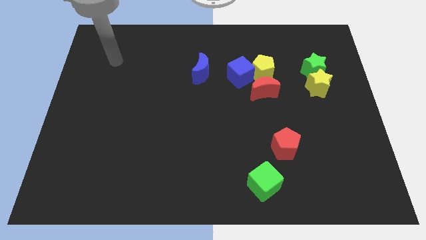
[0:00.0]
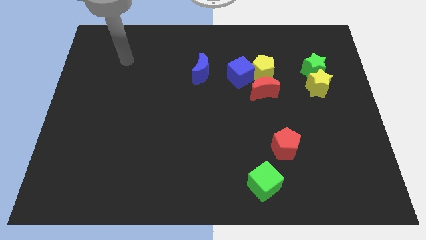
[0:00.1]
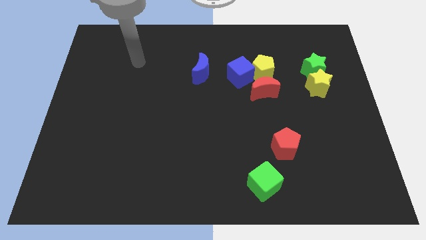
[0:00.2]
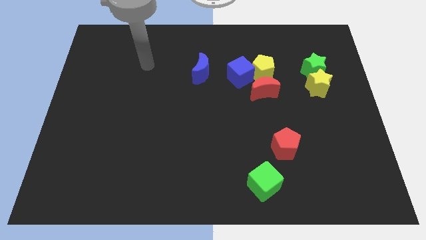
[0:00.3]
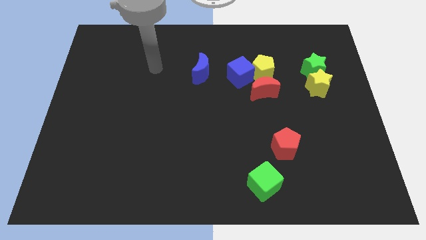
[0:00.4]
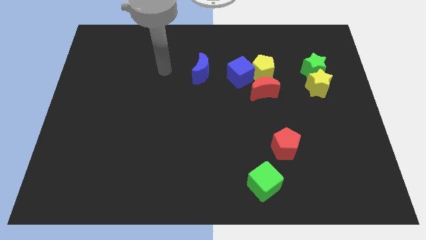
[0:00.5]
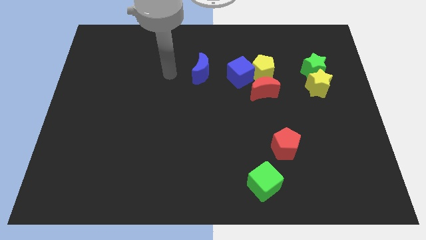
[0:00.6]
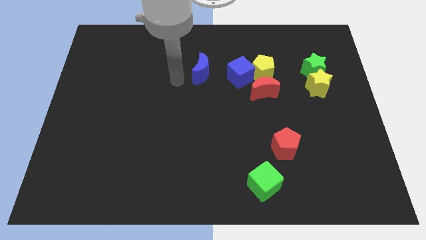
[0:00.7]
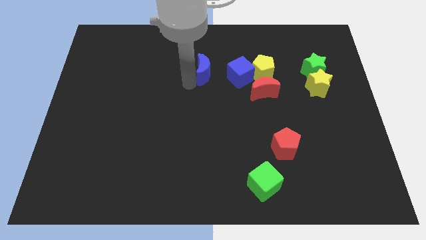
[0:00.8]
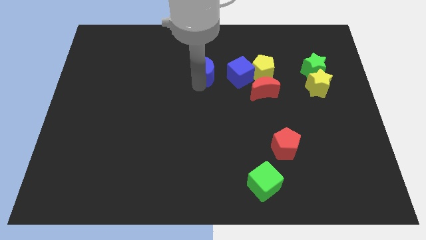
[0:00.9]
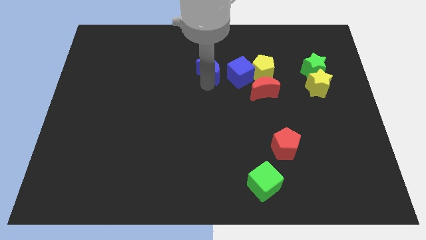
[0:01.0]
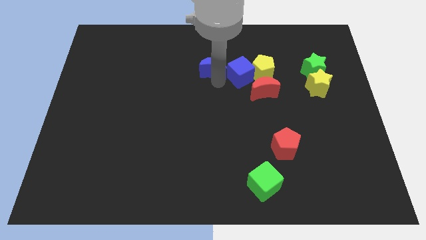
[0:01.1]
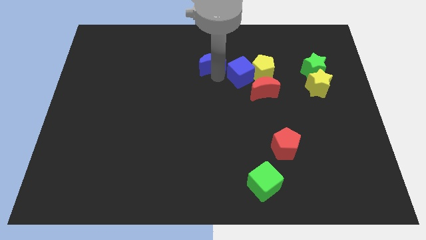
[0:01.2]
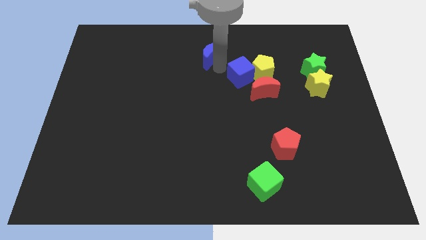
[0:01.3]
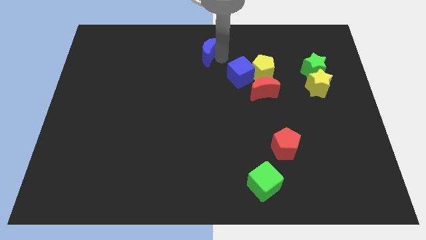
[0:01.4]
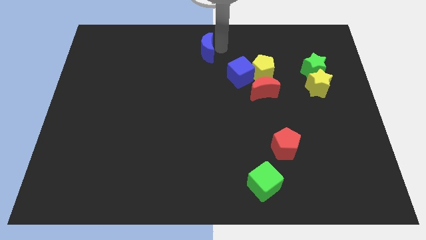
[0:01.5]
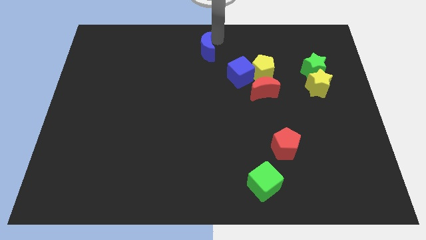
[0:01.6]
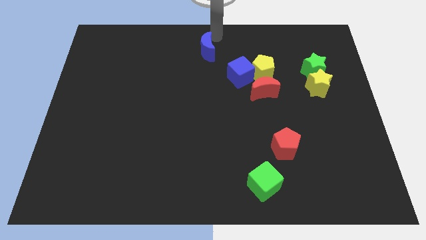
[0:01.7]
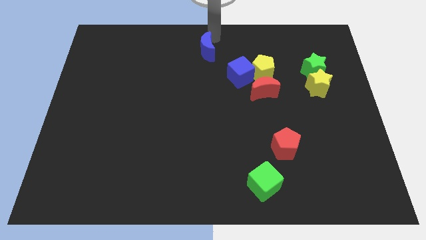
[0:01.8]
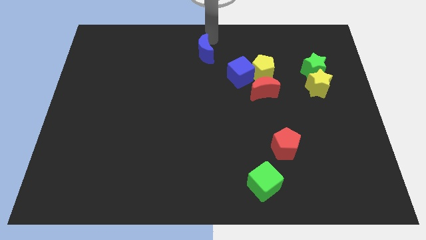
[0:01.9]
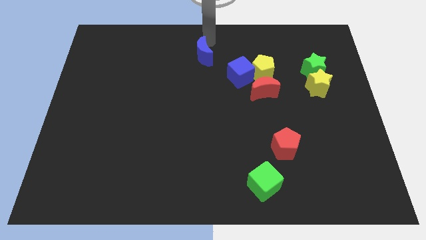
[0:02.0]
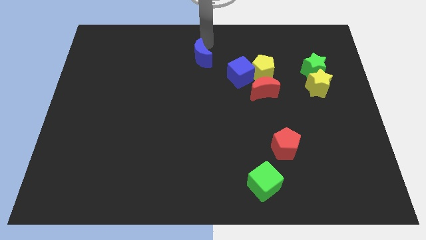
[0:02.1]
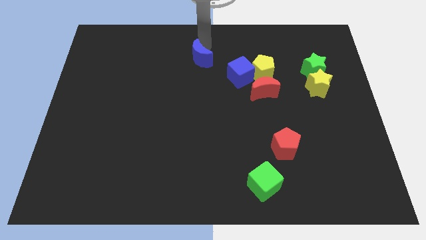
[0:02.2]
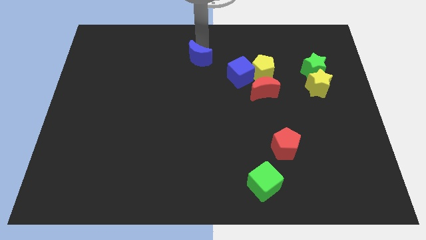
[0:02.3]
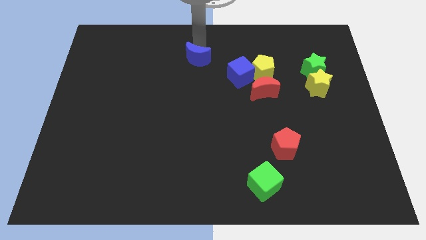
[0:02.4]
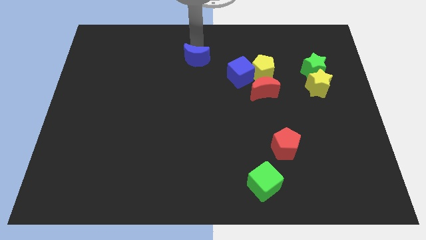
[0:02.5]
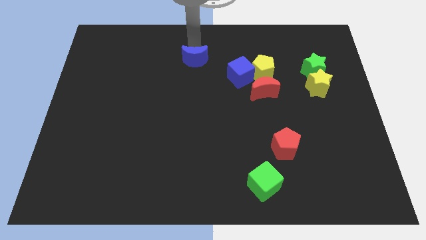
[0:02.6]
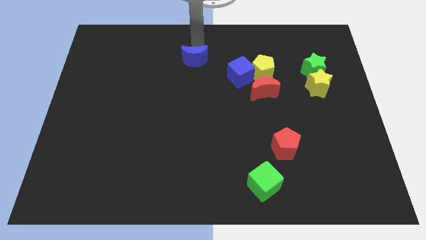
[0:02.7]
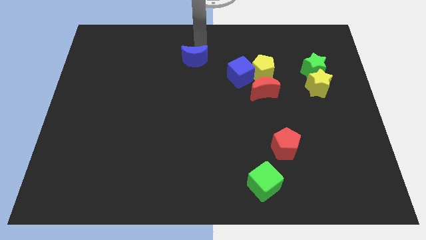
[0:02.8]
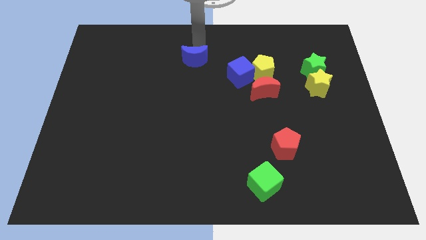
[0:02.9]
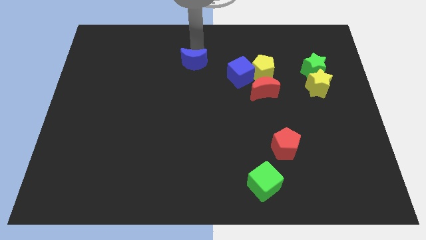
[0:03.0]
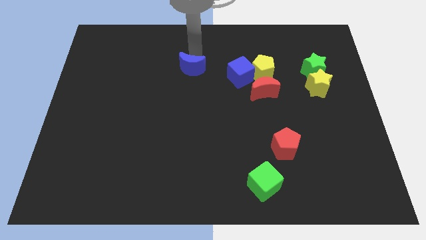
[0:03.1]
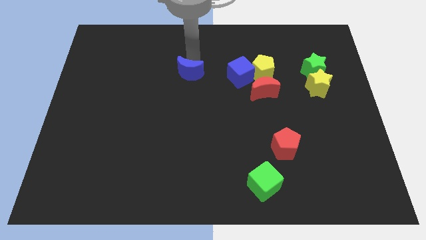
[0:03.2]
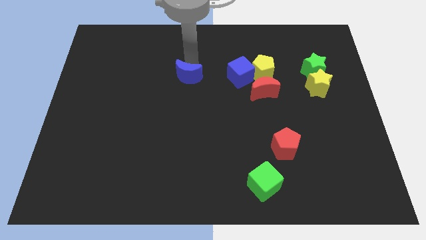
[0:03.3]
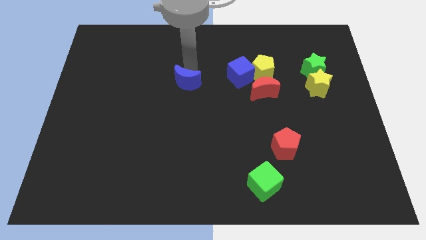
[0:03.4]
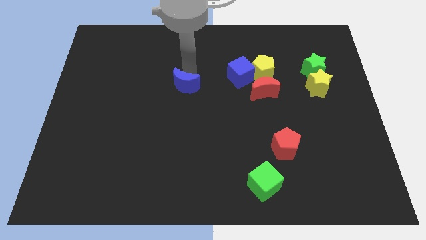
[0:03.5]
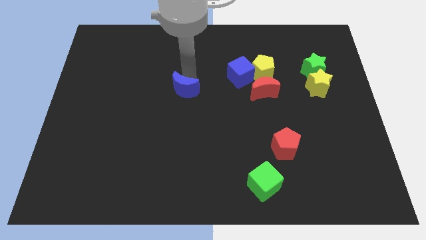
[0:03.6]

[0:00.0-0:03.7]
slide the blue moon somewhat diagonally downwards and to the left

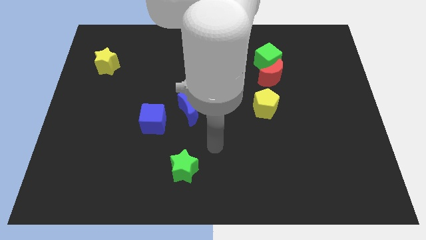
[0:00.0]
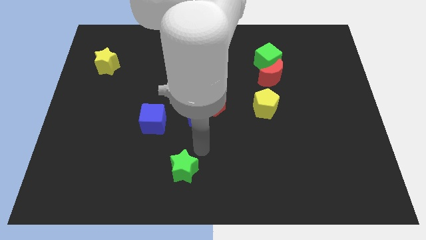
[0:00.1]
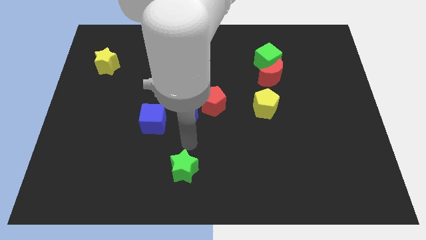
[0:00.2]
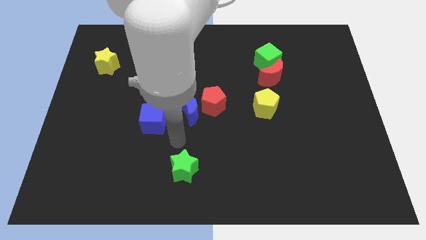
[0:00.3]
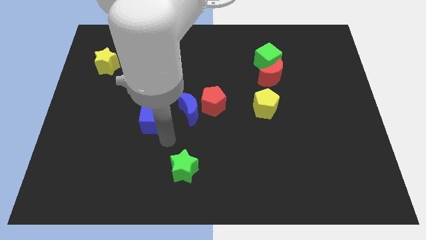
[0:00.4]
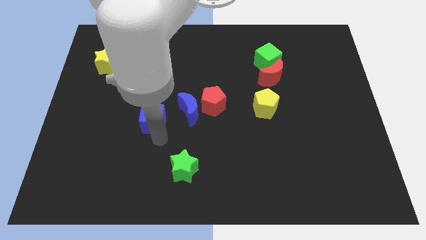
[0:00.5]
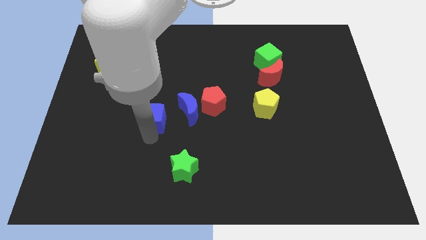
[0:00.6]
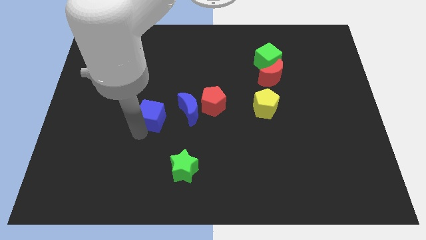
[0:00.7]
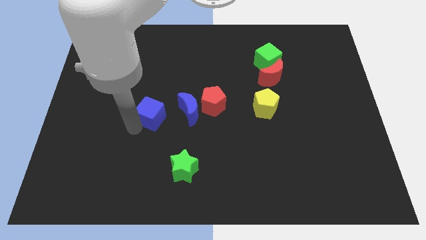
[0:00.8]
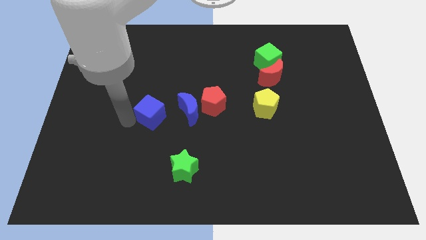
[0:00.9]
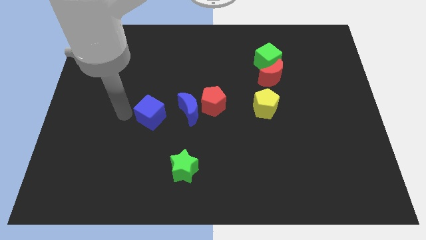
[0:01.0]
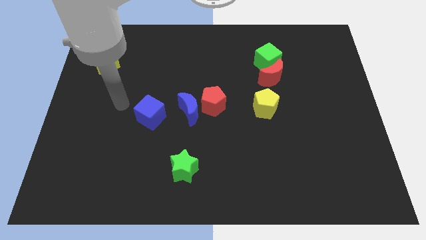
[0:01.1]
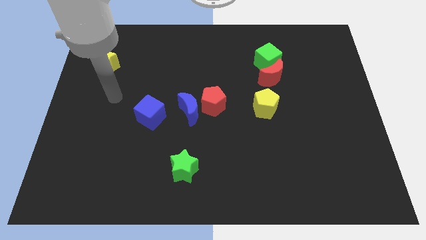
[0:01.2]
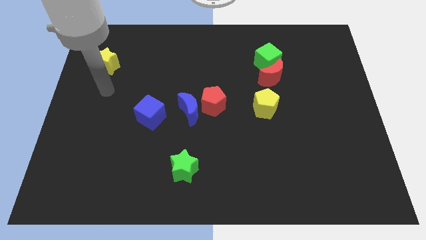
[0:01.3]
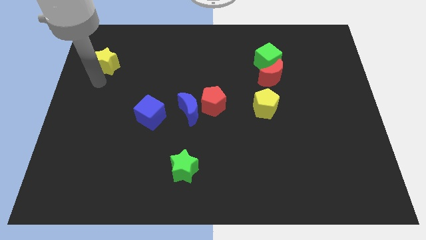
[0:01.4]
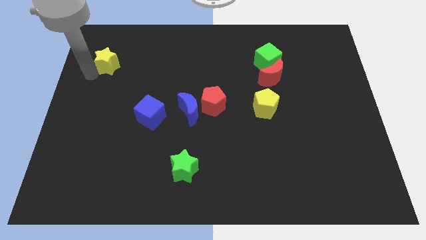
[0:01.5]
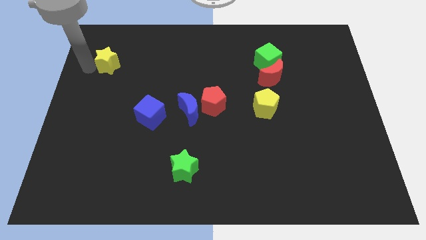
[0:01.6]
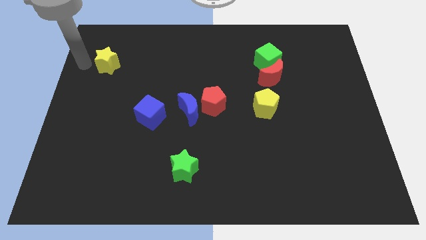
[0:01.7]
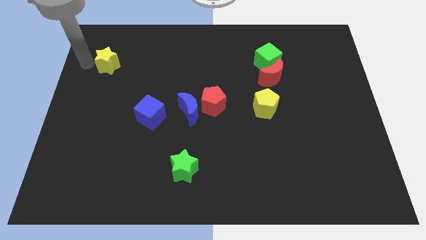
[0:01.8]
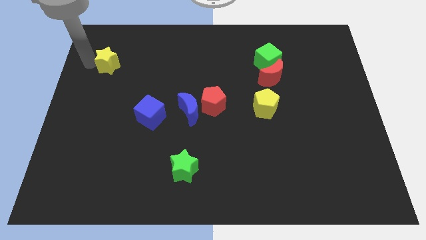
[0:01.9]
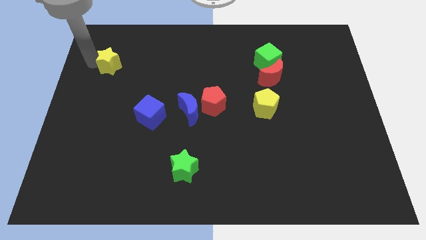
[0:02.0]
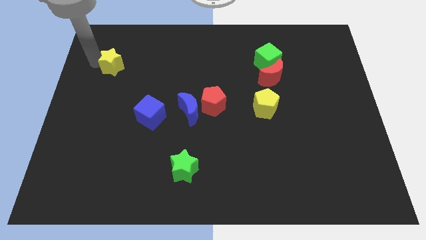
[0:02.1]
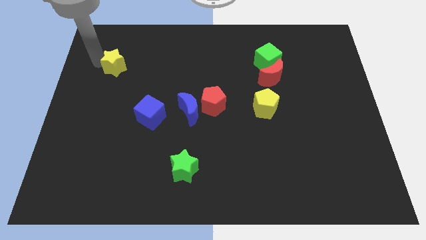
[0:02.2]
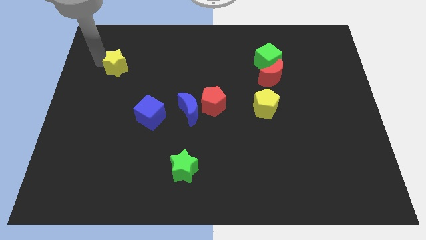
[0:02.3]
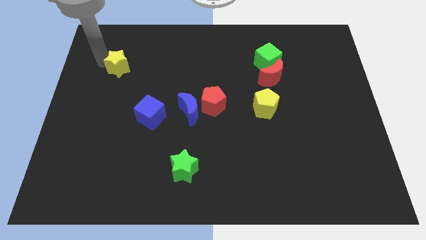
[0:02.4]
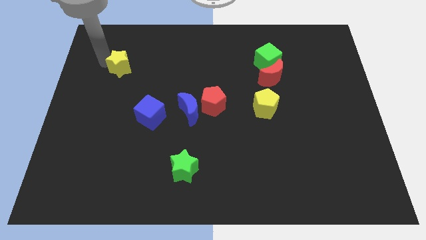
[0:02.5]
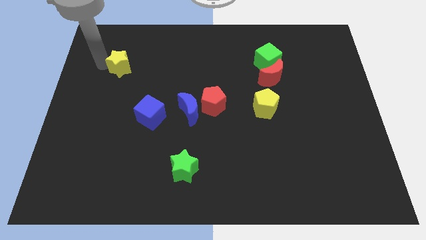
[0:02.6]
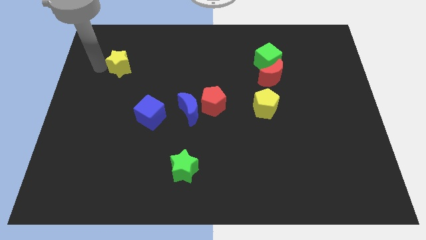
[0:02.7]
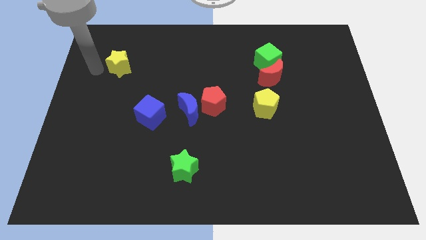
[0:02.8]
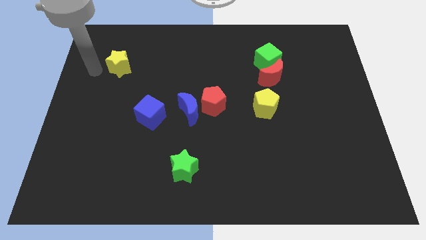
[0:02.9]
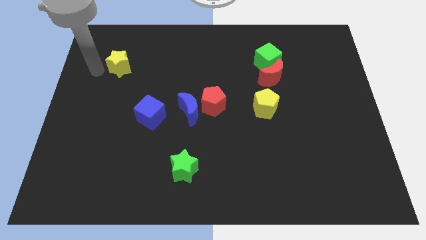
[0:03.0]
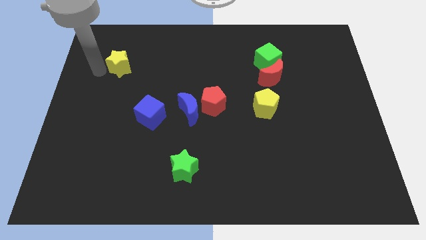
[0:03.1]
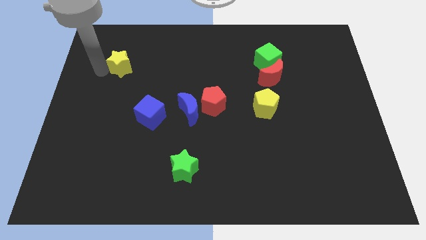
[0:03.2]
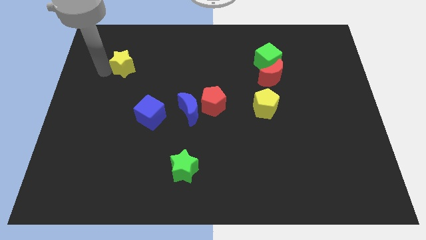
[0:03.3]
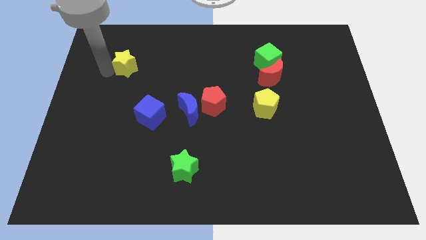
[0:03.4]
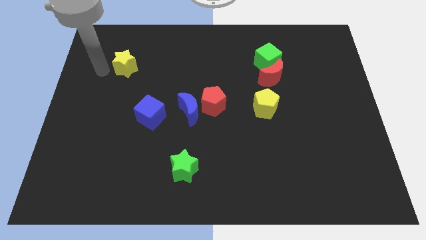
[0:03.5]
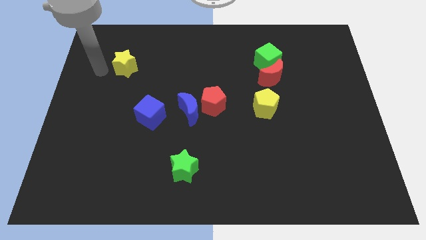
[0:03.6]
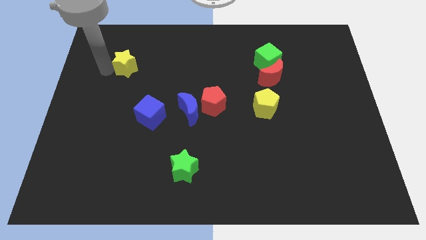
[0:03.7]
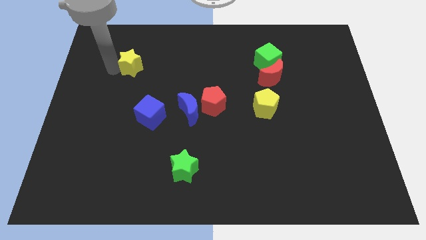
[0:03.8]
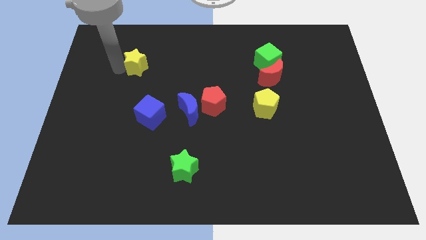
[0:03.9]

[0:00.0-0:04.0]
slightly slide the yellow star right

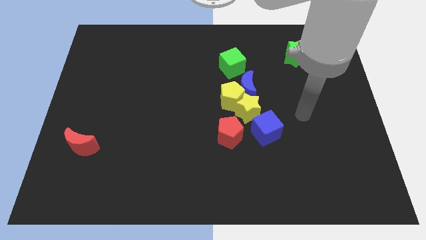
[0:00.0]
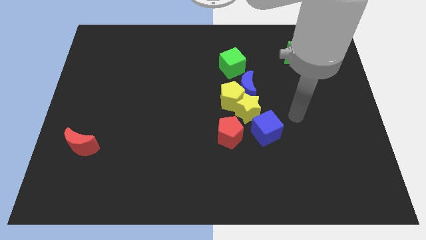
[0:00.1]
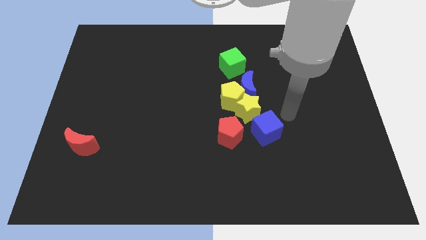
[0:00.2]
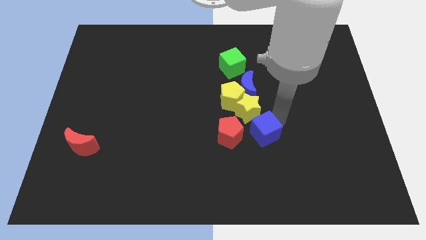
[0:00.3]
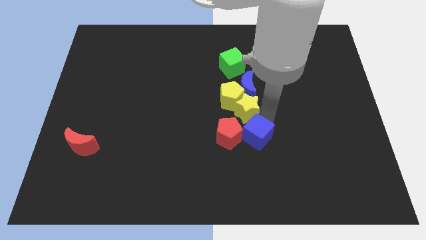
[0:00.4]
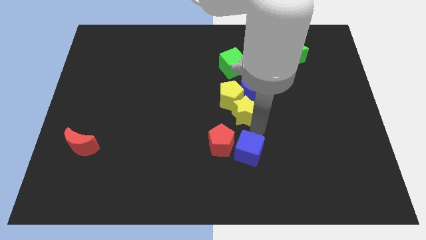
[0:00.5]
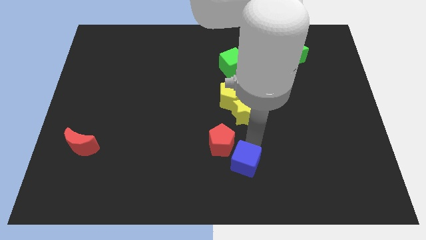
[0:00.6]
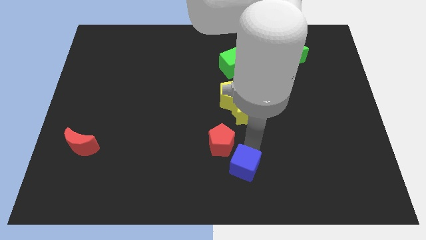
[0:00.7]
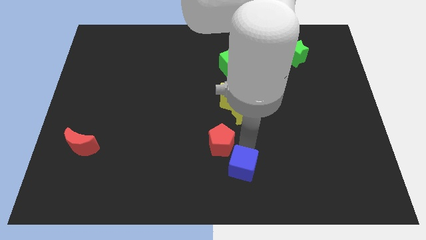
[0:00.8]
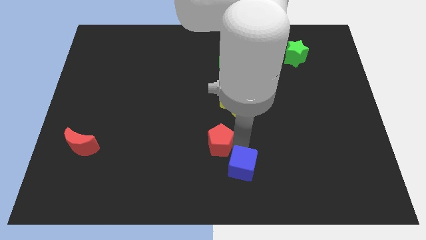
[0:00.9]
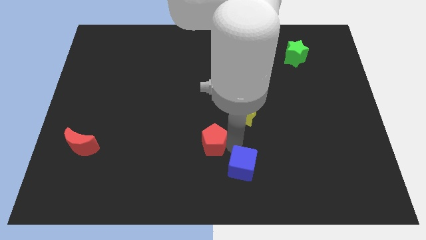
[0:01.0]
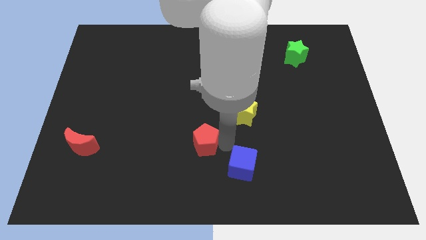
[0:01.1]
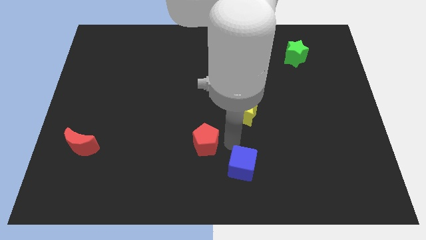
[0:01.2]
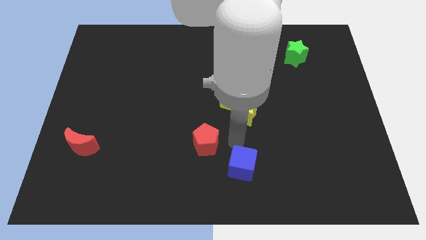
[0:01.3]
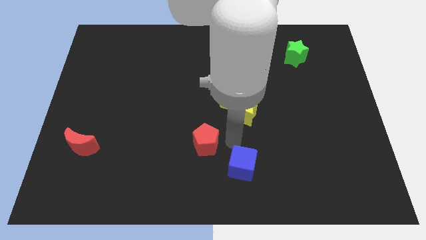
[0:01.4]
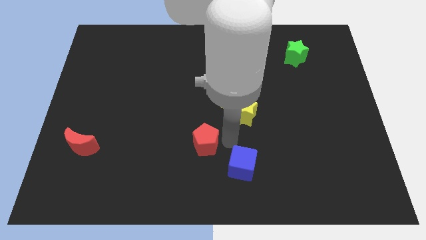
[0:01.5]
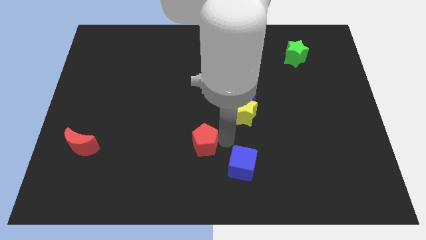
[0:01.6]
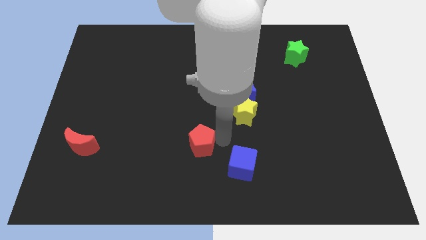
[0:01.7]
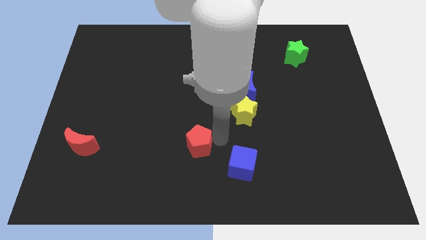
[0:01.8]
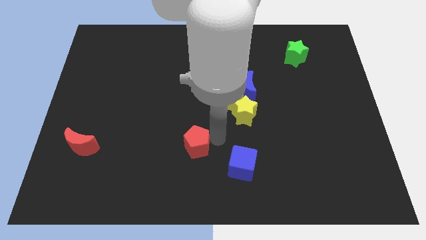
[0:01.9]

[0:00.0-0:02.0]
move the red pentagon left a bit
